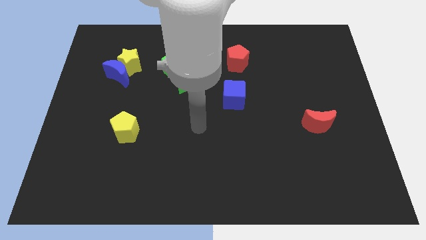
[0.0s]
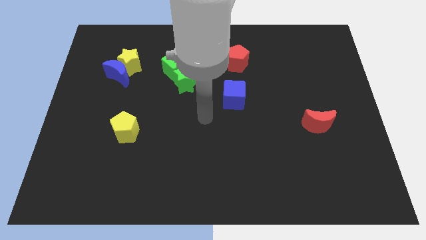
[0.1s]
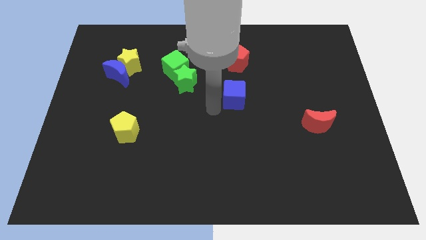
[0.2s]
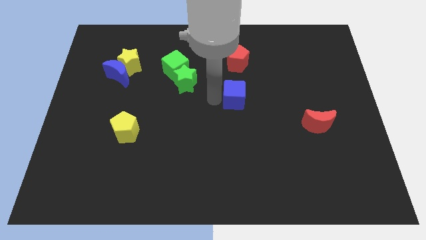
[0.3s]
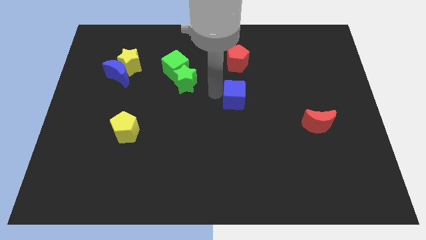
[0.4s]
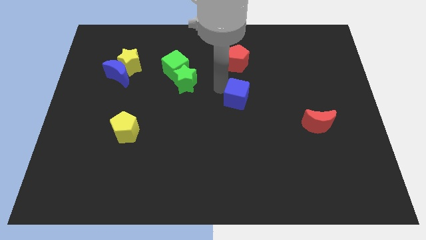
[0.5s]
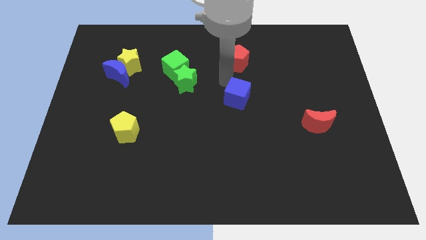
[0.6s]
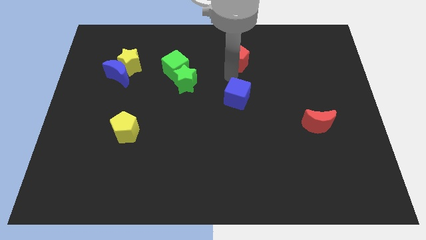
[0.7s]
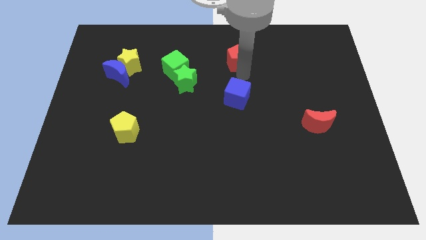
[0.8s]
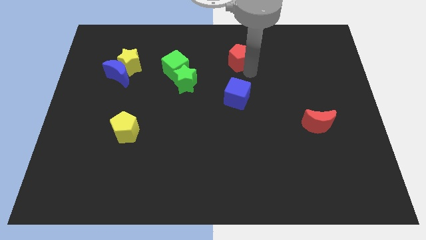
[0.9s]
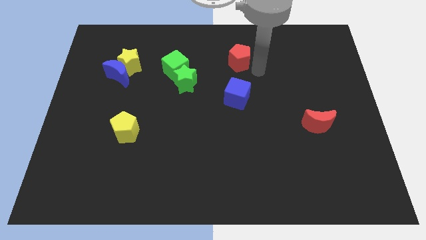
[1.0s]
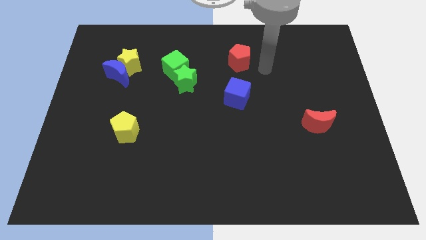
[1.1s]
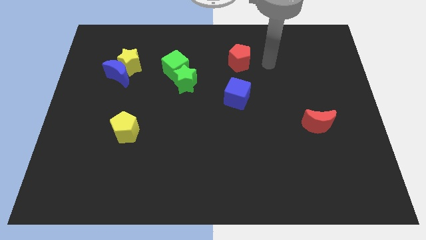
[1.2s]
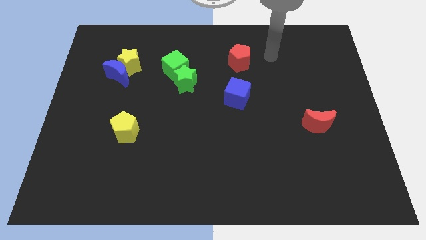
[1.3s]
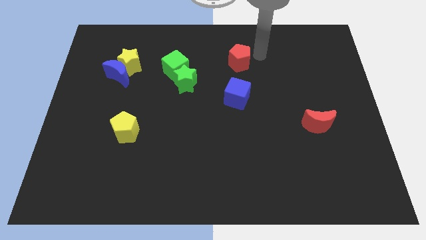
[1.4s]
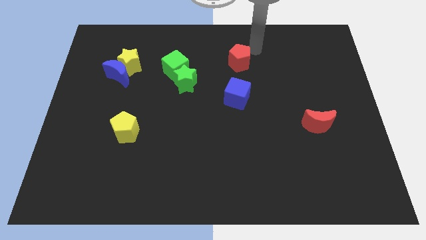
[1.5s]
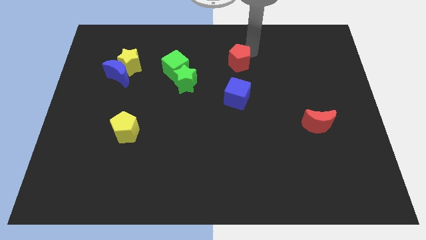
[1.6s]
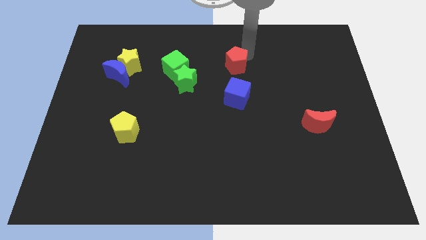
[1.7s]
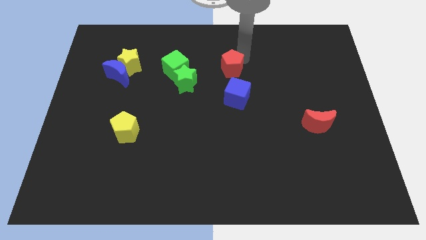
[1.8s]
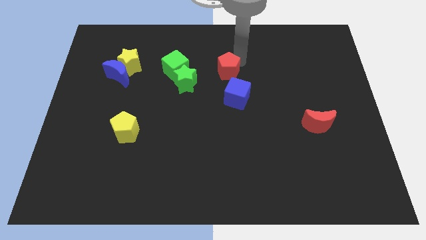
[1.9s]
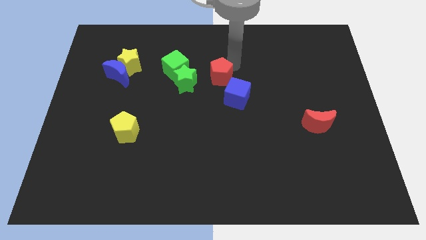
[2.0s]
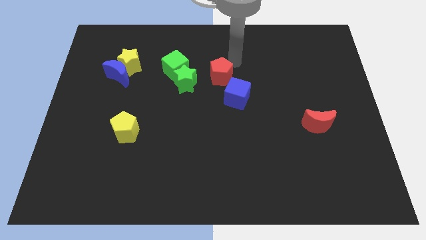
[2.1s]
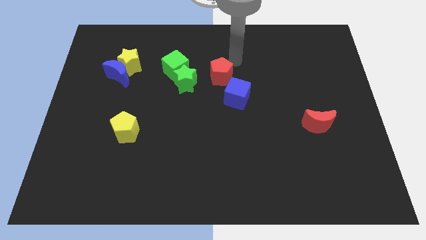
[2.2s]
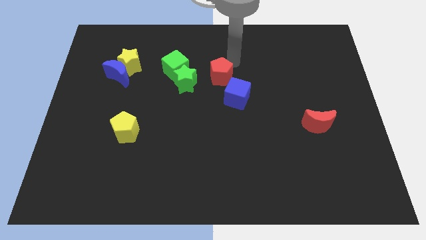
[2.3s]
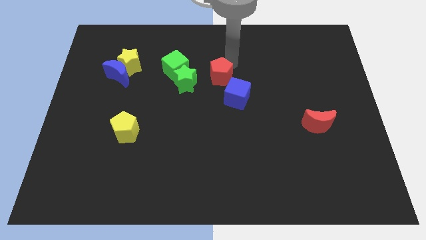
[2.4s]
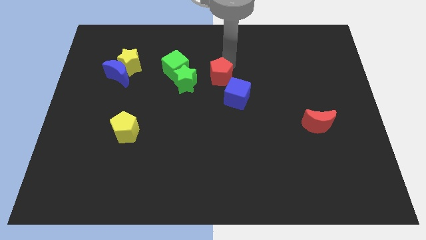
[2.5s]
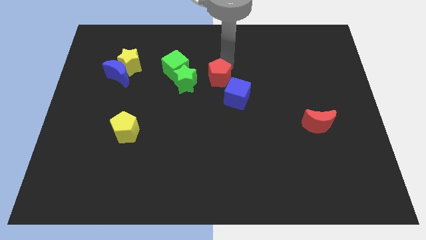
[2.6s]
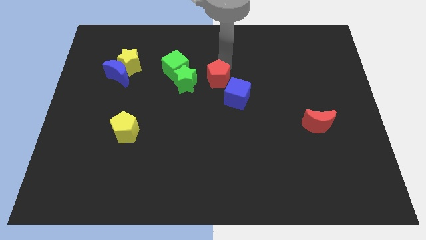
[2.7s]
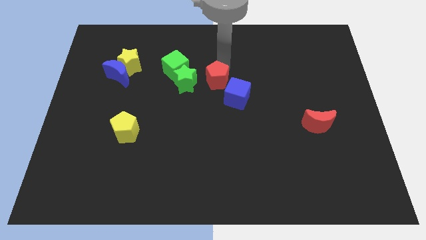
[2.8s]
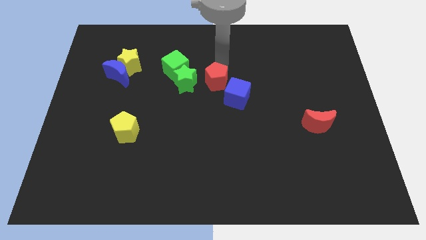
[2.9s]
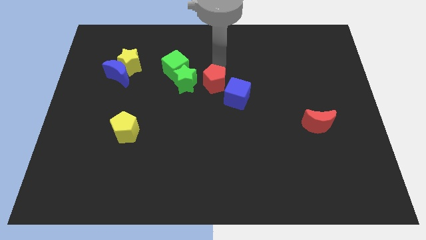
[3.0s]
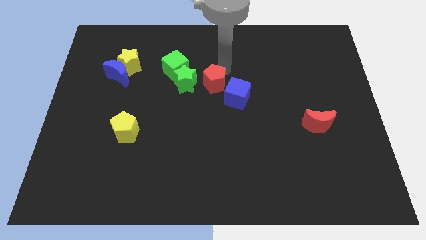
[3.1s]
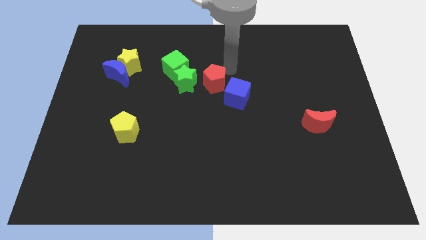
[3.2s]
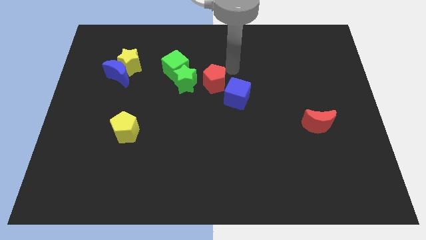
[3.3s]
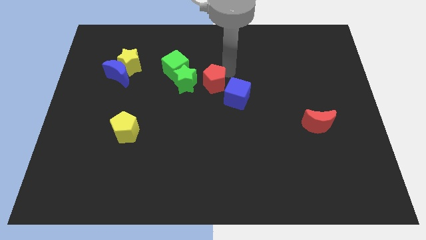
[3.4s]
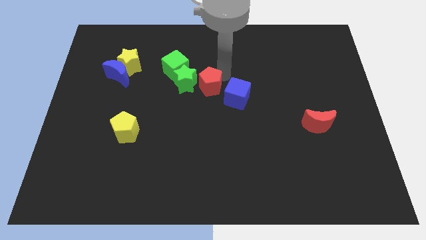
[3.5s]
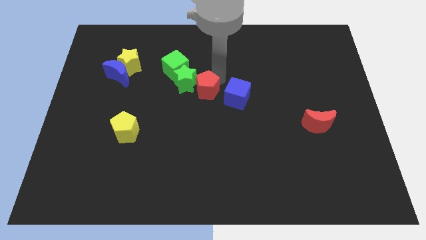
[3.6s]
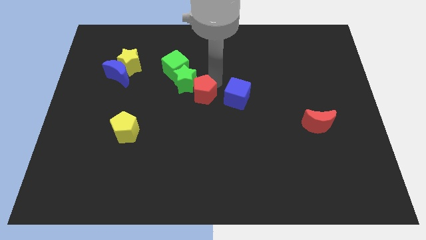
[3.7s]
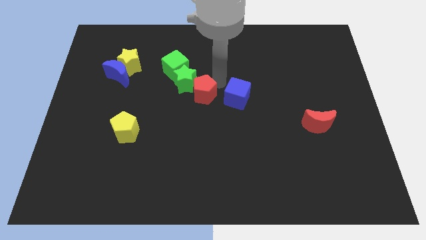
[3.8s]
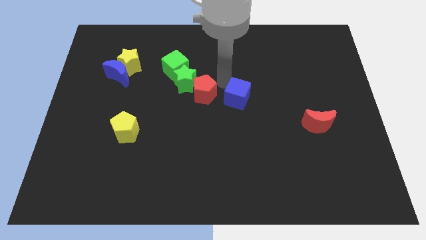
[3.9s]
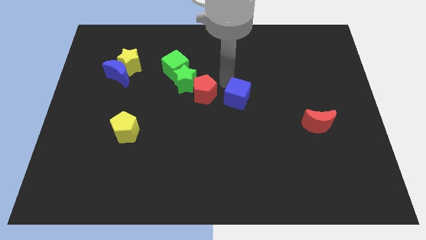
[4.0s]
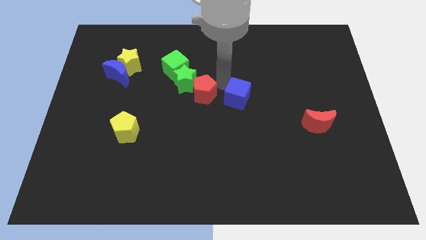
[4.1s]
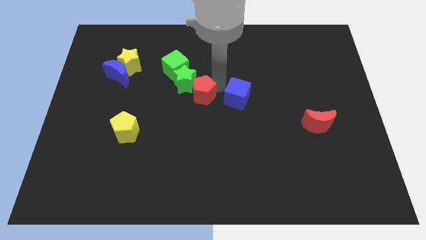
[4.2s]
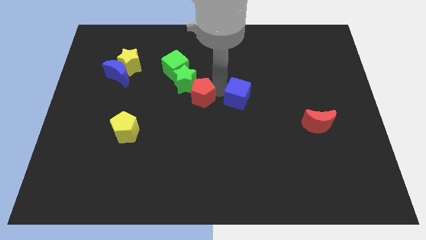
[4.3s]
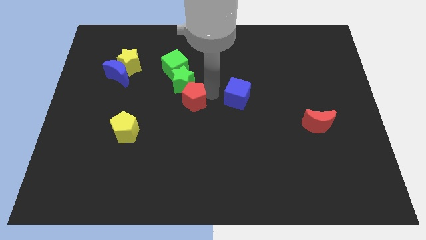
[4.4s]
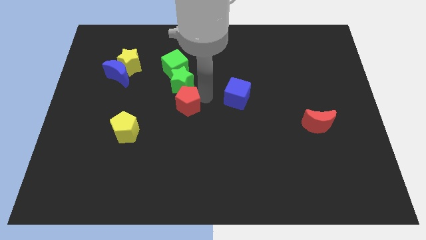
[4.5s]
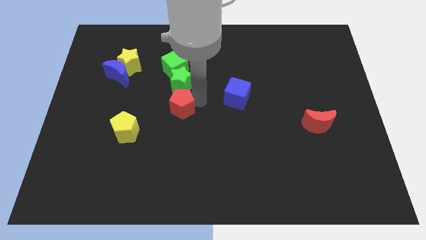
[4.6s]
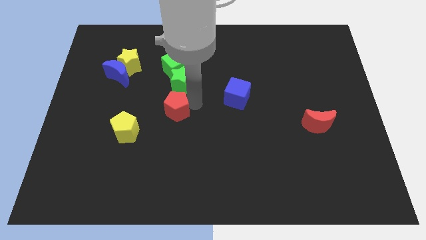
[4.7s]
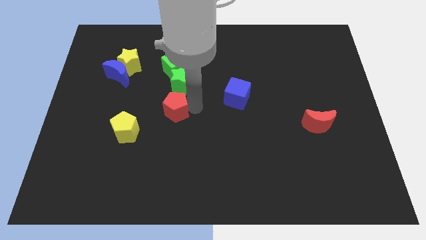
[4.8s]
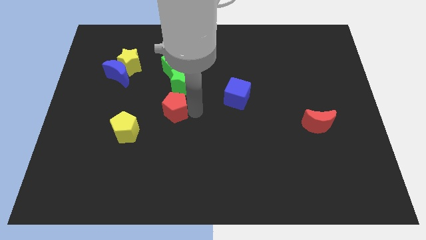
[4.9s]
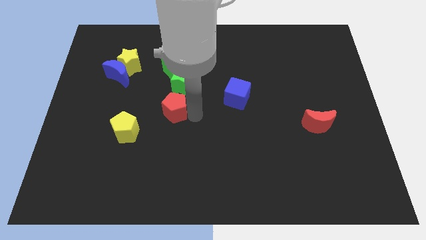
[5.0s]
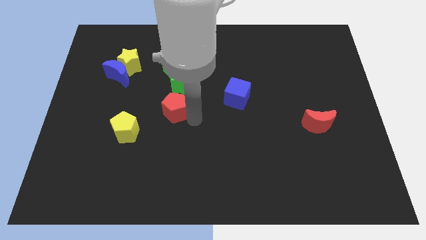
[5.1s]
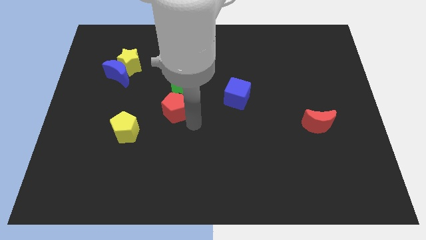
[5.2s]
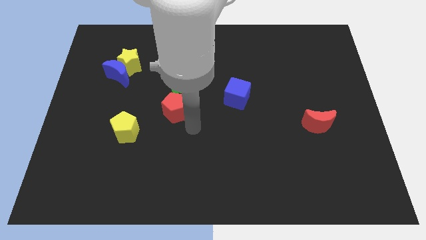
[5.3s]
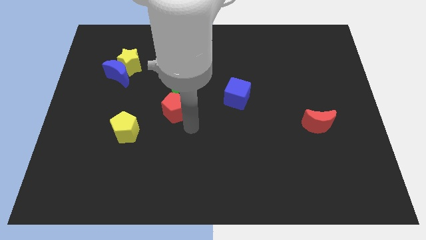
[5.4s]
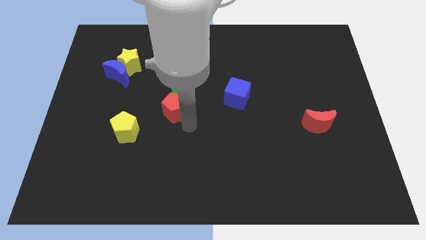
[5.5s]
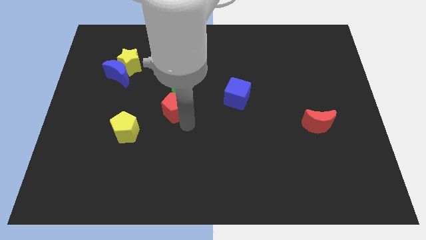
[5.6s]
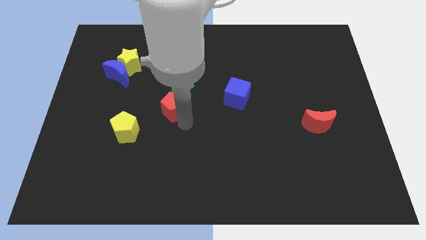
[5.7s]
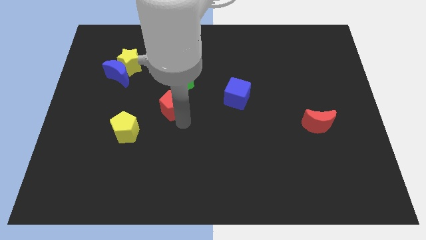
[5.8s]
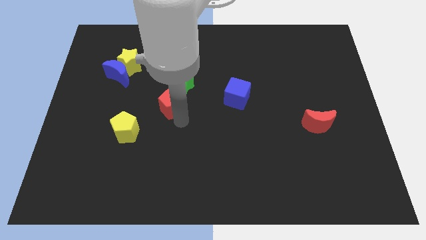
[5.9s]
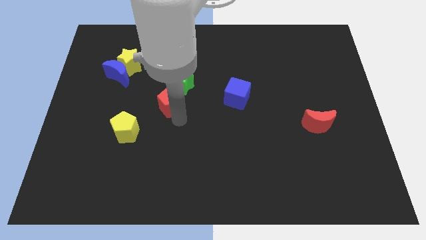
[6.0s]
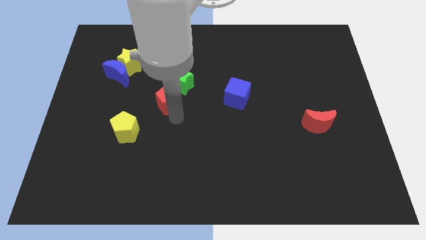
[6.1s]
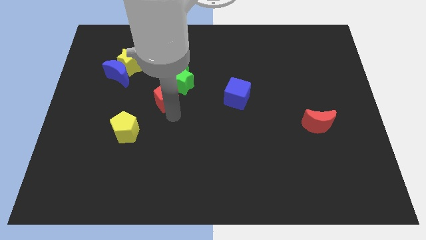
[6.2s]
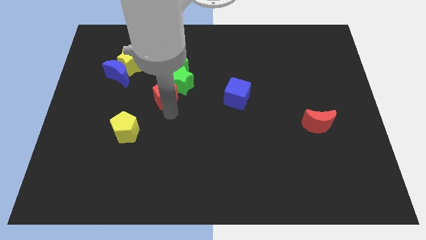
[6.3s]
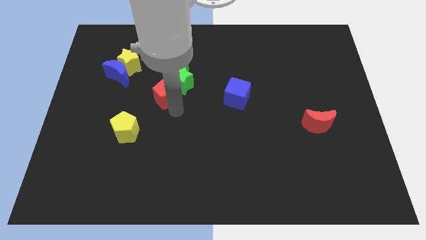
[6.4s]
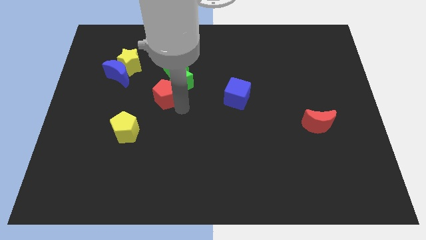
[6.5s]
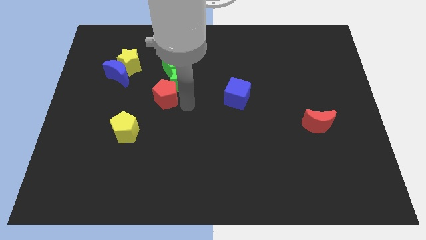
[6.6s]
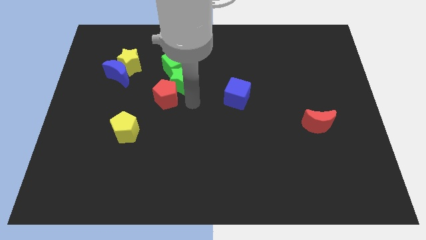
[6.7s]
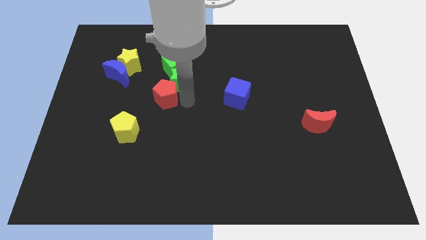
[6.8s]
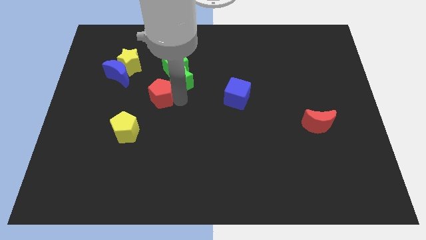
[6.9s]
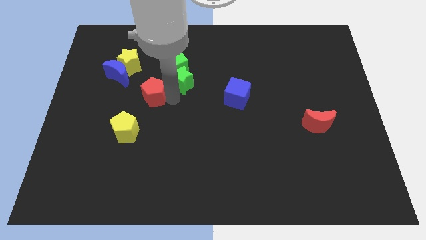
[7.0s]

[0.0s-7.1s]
move the red pentagon to the bottom right side of the blue moon
